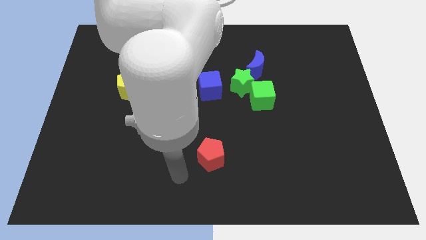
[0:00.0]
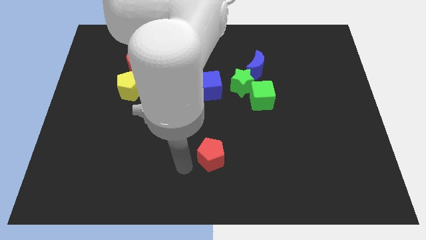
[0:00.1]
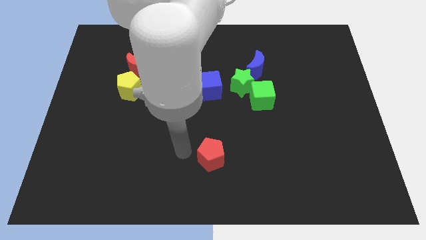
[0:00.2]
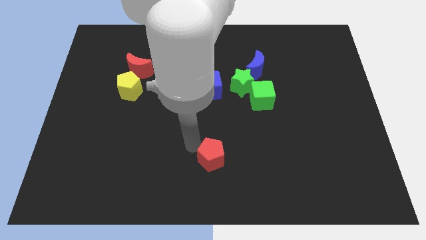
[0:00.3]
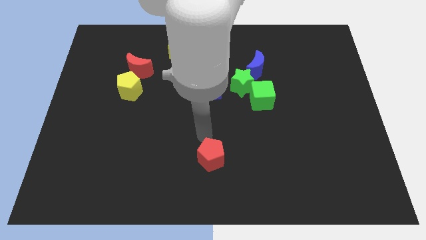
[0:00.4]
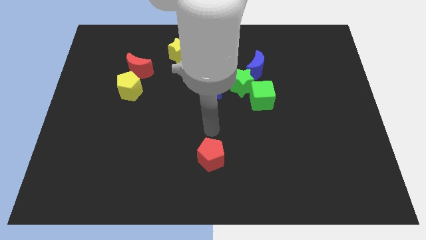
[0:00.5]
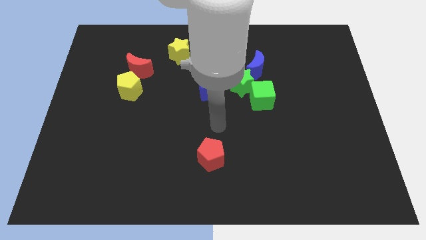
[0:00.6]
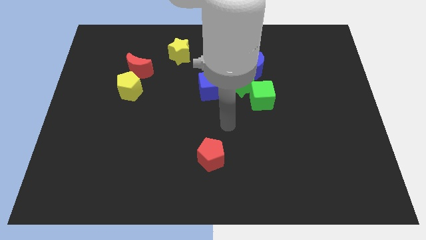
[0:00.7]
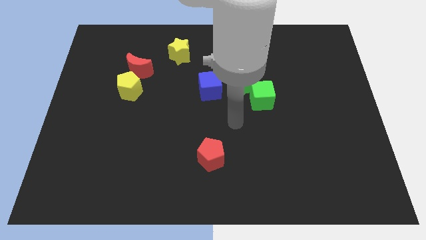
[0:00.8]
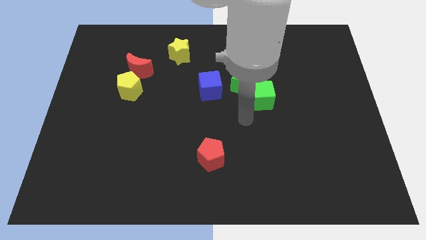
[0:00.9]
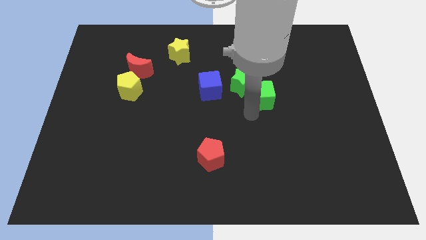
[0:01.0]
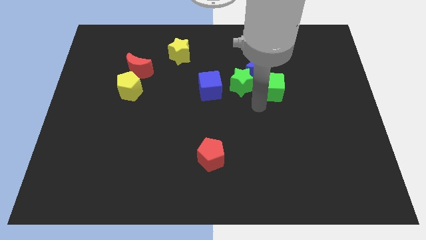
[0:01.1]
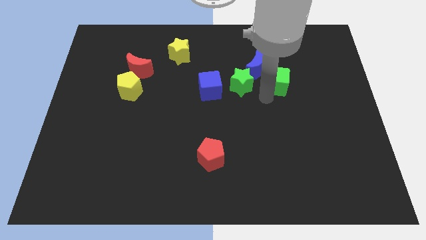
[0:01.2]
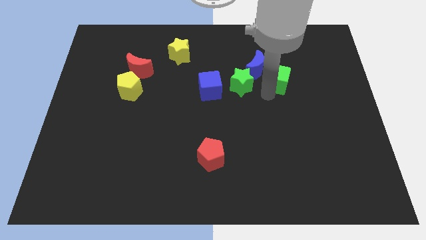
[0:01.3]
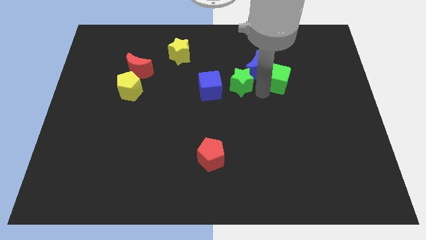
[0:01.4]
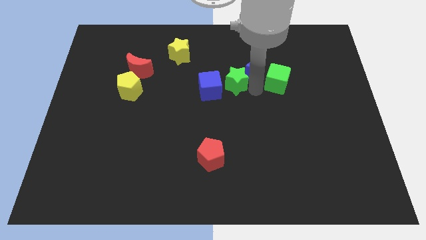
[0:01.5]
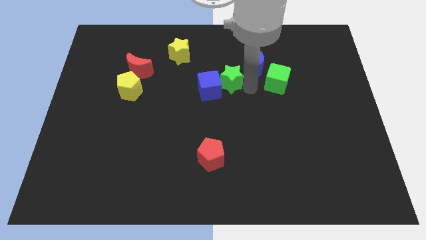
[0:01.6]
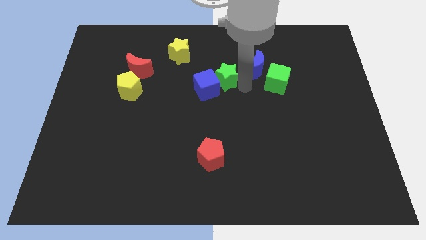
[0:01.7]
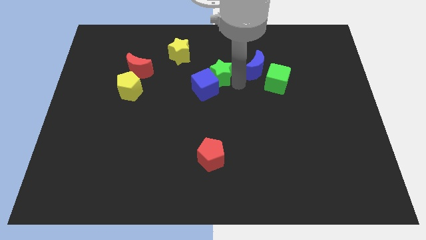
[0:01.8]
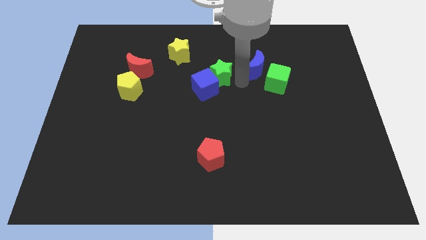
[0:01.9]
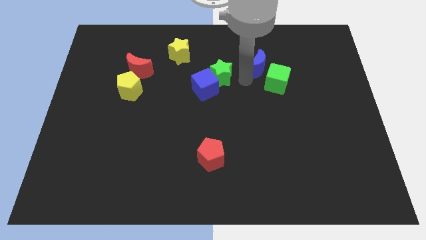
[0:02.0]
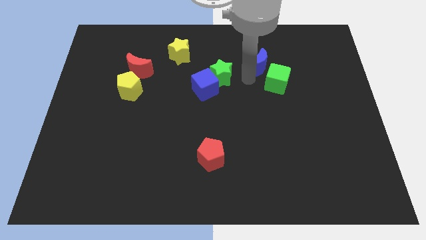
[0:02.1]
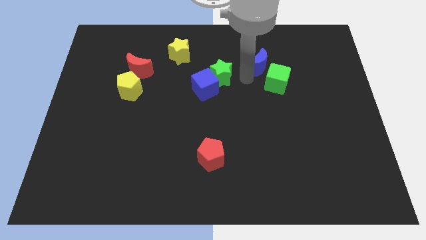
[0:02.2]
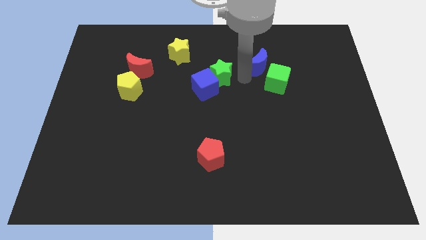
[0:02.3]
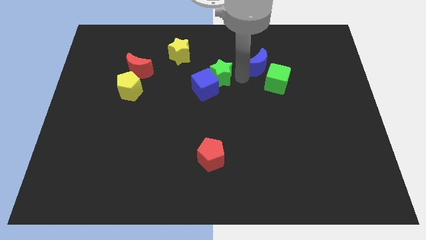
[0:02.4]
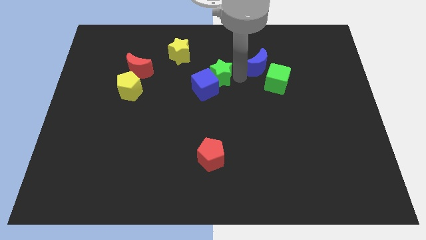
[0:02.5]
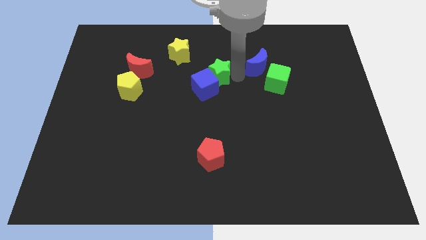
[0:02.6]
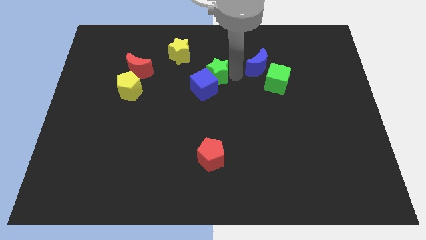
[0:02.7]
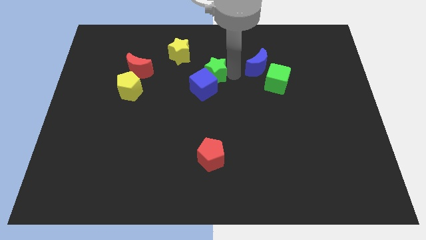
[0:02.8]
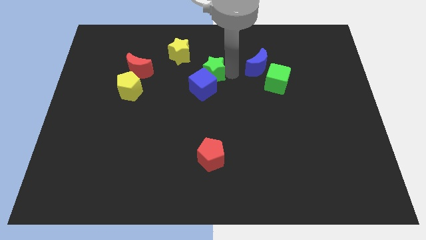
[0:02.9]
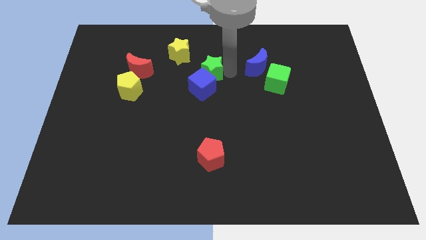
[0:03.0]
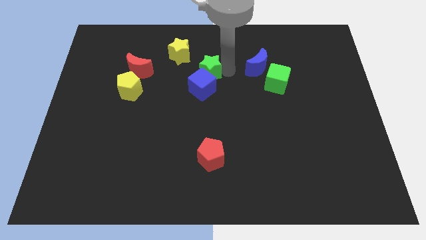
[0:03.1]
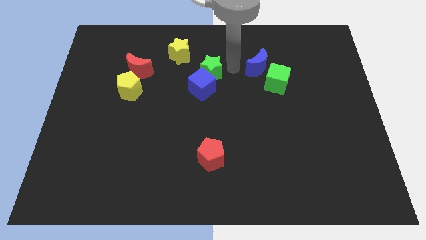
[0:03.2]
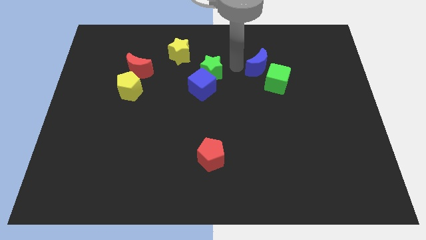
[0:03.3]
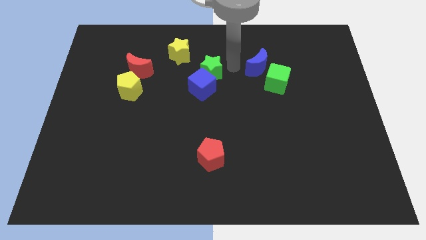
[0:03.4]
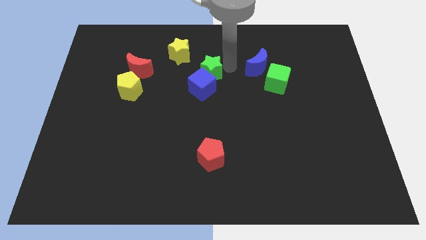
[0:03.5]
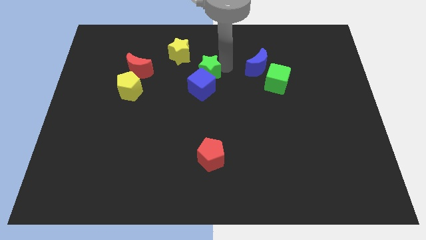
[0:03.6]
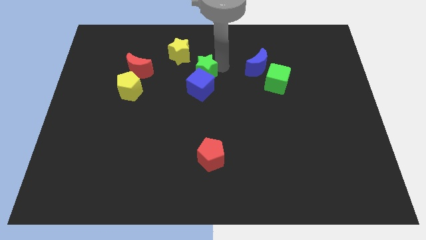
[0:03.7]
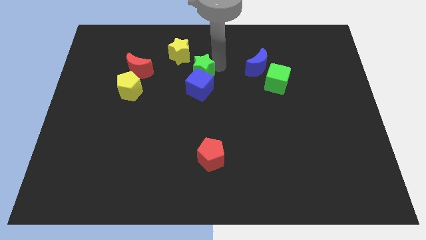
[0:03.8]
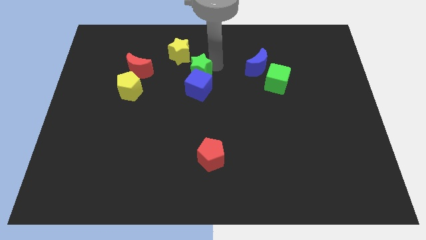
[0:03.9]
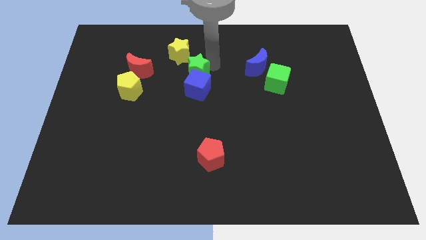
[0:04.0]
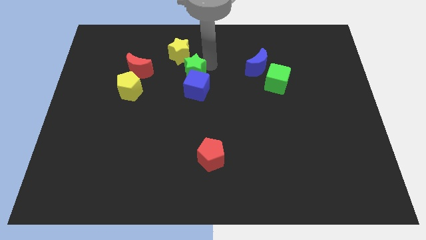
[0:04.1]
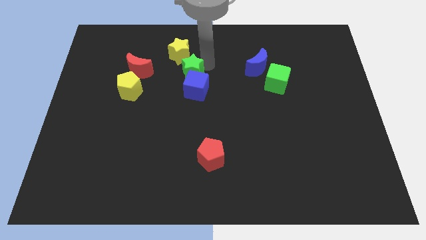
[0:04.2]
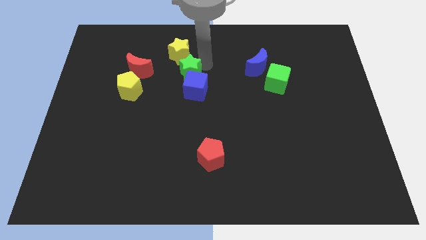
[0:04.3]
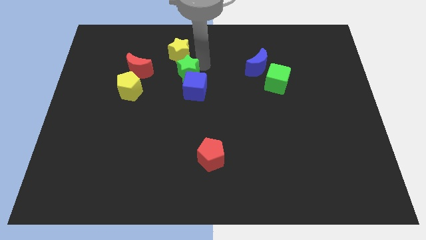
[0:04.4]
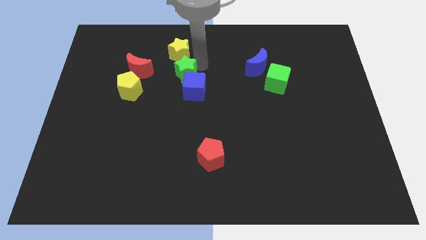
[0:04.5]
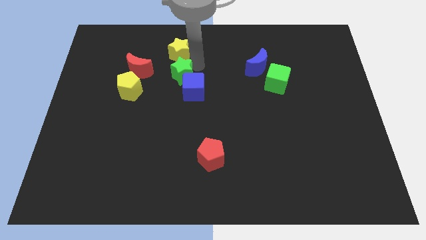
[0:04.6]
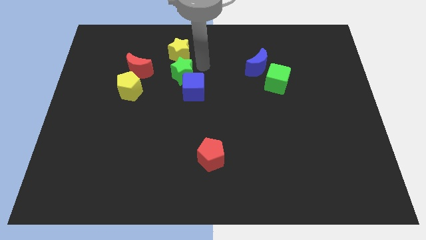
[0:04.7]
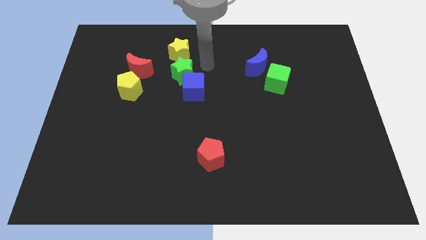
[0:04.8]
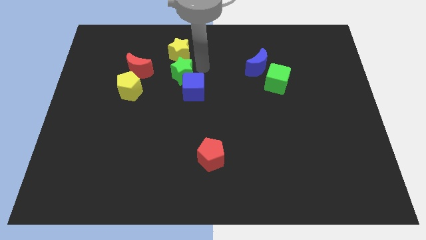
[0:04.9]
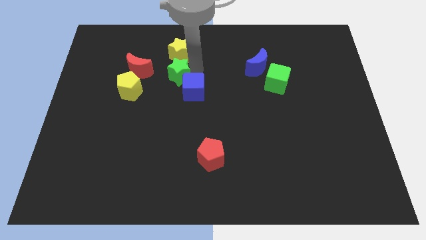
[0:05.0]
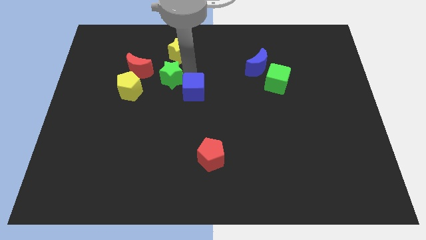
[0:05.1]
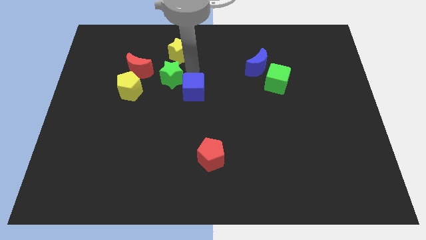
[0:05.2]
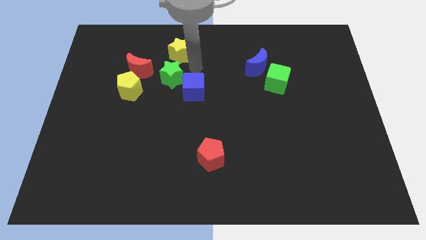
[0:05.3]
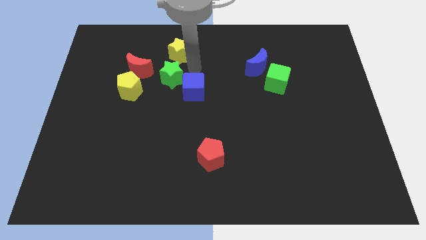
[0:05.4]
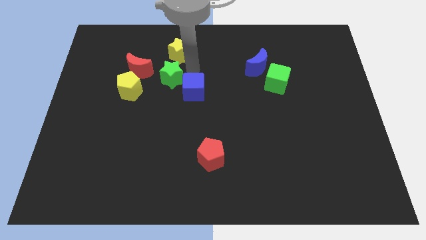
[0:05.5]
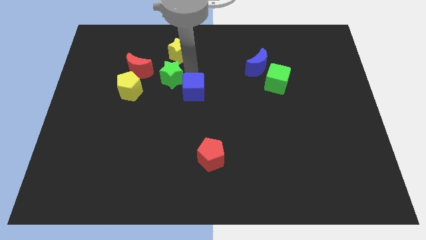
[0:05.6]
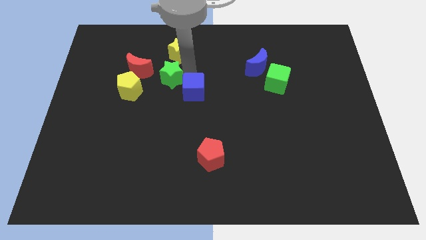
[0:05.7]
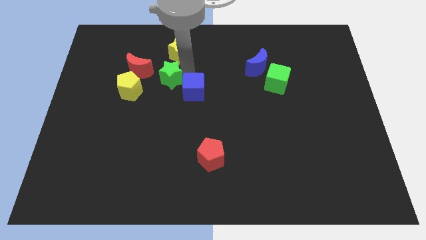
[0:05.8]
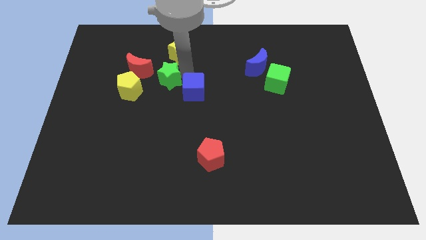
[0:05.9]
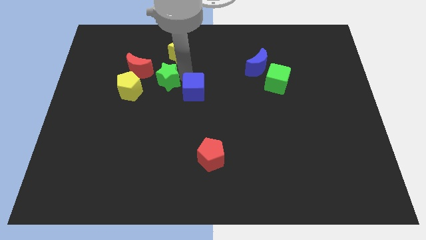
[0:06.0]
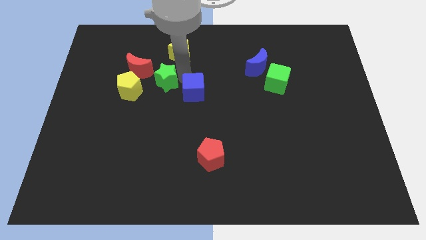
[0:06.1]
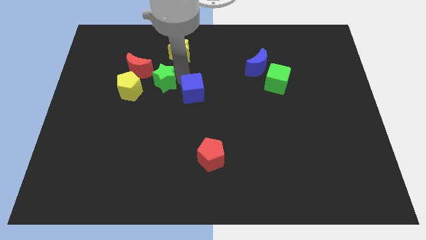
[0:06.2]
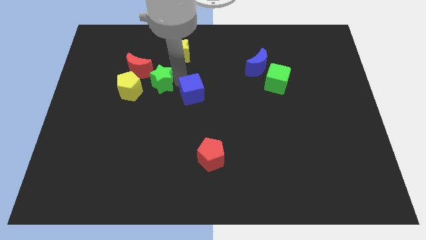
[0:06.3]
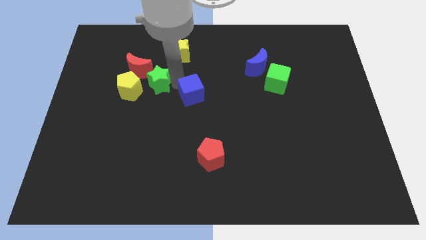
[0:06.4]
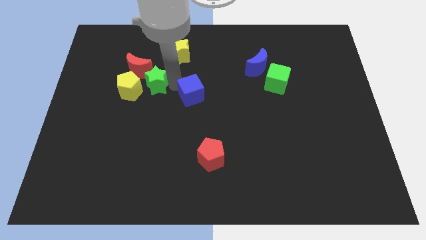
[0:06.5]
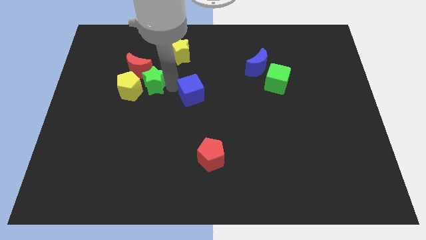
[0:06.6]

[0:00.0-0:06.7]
move the green star towards the yellow pentagon

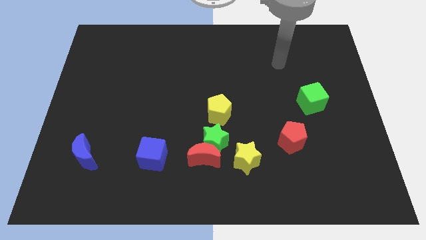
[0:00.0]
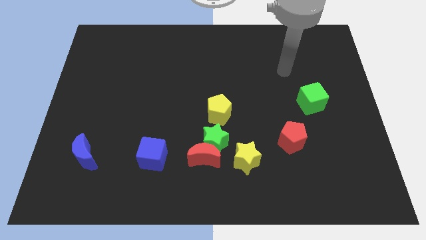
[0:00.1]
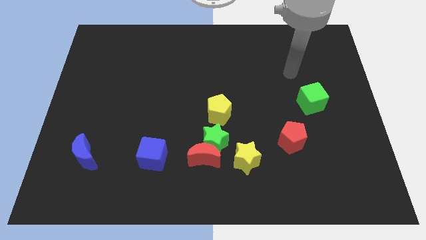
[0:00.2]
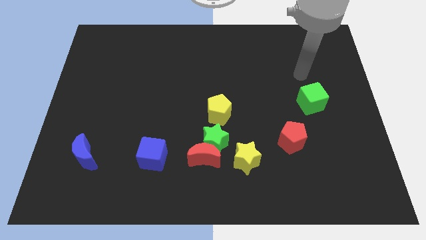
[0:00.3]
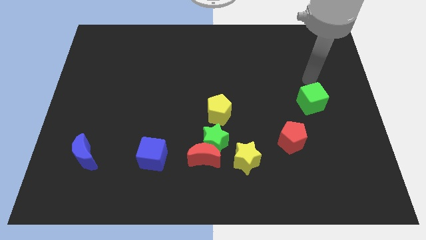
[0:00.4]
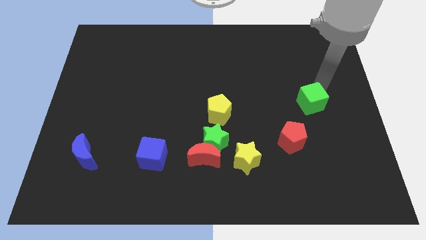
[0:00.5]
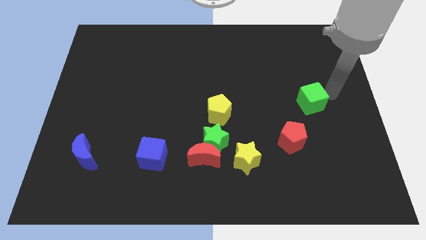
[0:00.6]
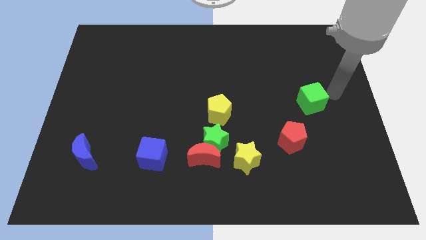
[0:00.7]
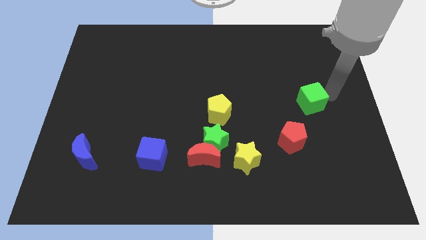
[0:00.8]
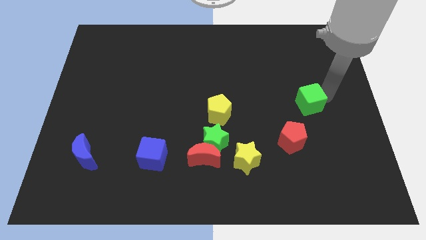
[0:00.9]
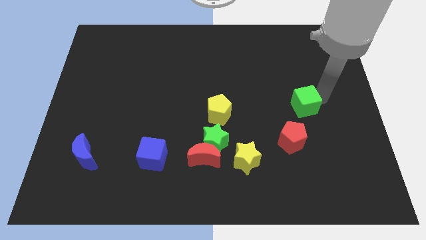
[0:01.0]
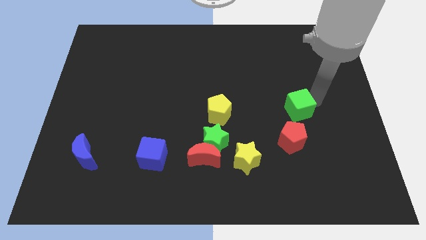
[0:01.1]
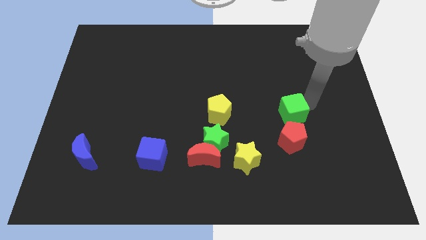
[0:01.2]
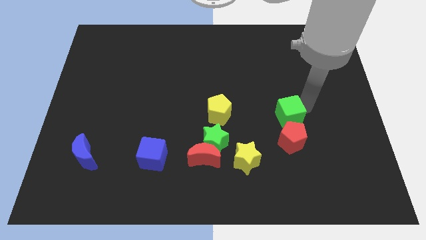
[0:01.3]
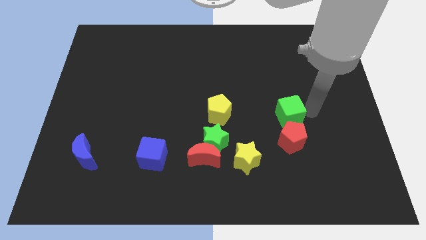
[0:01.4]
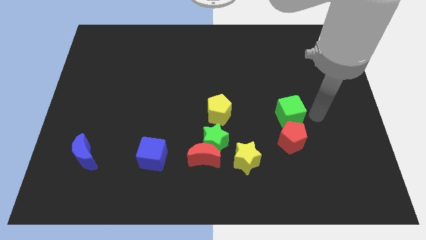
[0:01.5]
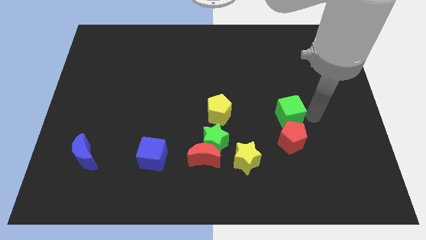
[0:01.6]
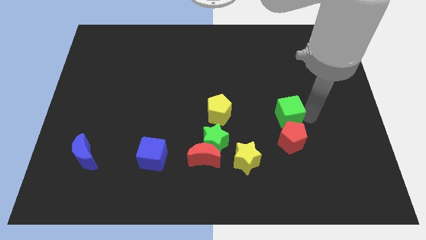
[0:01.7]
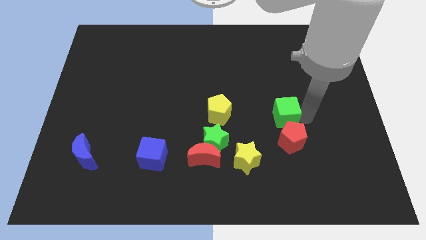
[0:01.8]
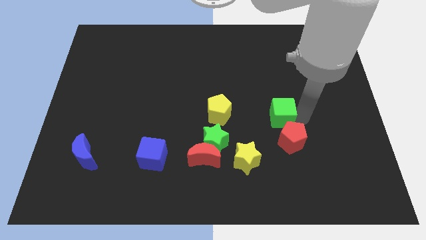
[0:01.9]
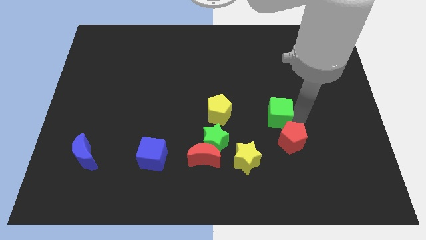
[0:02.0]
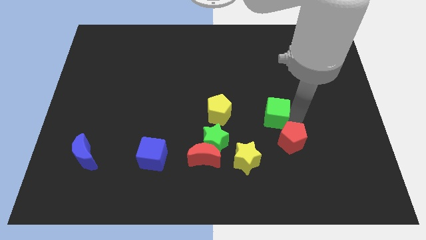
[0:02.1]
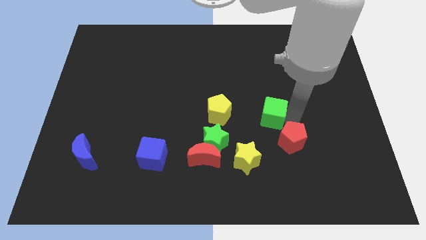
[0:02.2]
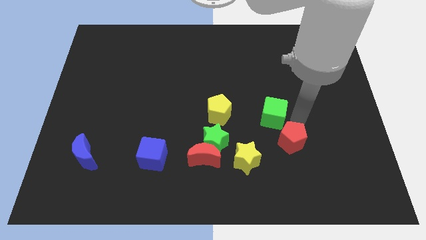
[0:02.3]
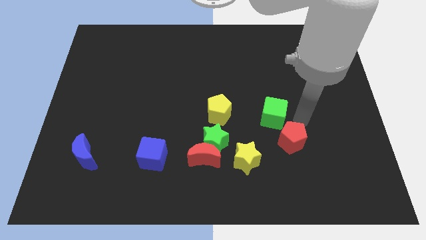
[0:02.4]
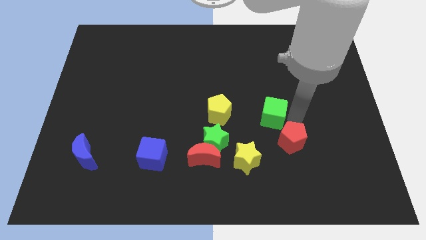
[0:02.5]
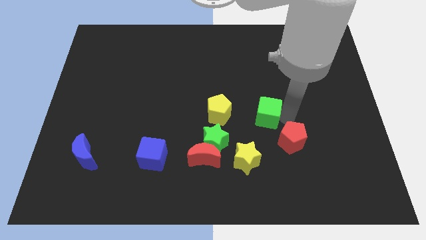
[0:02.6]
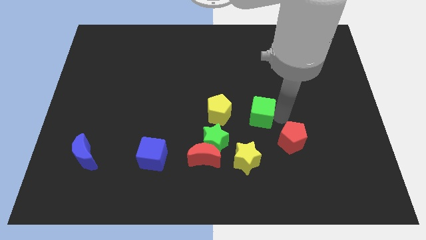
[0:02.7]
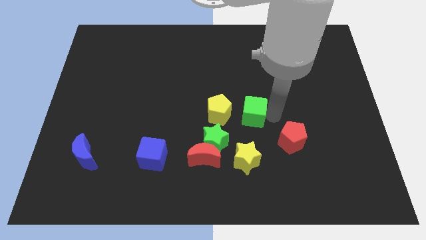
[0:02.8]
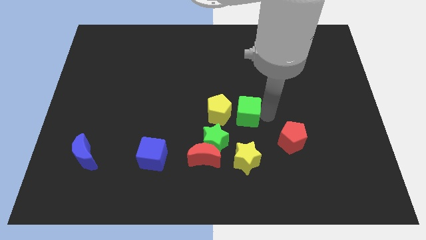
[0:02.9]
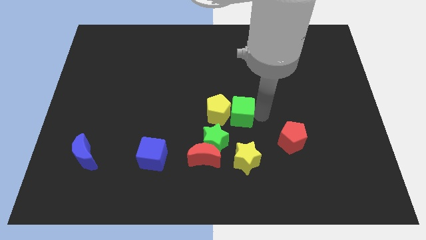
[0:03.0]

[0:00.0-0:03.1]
push the green cube close to the yellow pentagon
